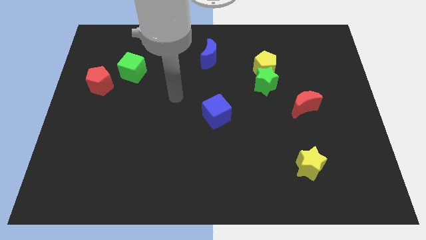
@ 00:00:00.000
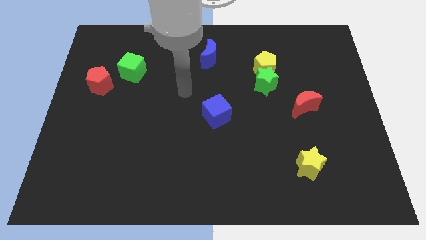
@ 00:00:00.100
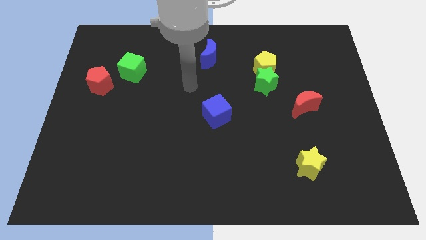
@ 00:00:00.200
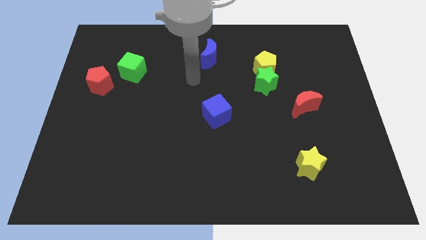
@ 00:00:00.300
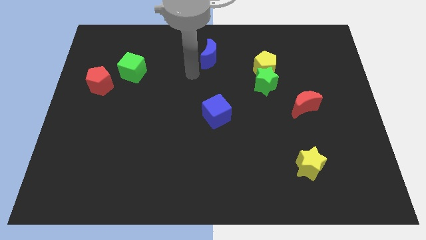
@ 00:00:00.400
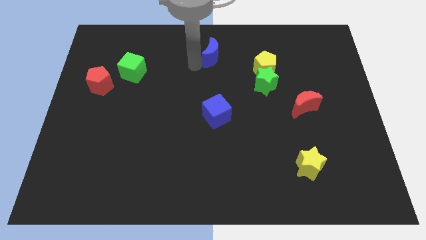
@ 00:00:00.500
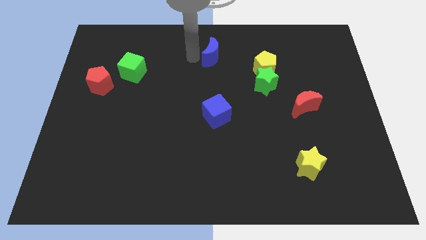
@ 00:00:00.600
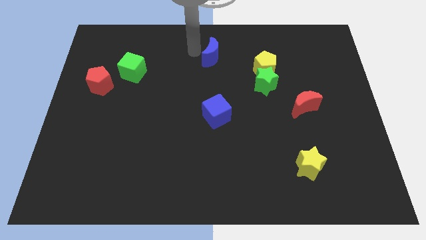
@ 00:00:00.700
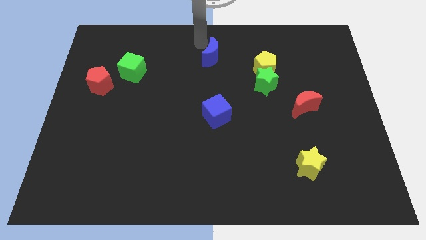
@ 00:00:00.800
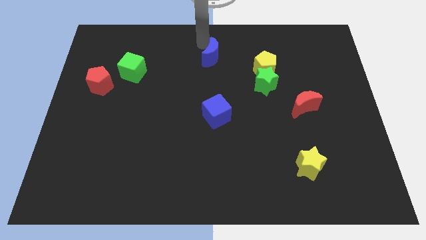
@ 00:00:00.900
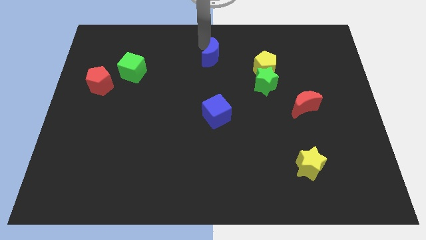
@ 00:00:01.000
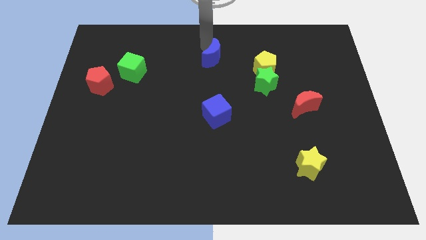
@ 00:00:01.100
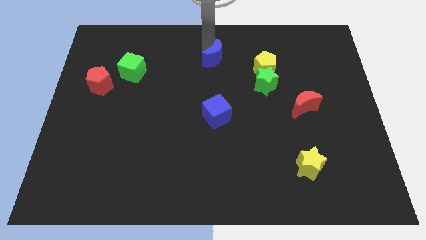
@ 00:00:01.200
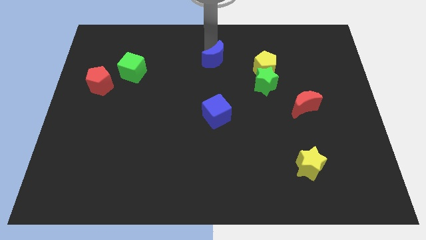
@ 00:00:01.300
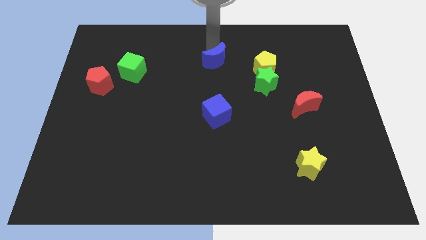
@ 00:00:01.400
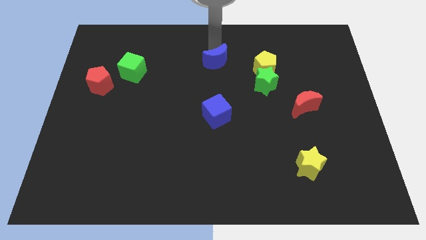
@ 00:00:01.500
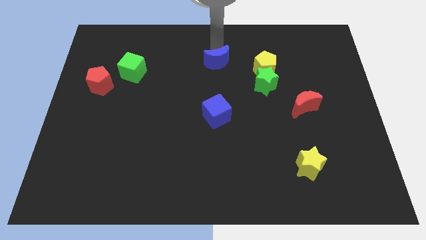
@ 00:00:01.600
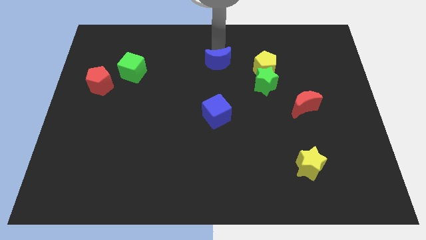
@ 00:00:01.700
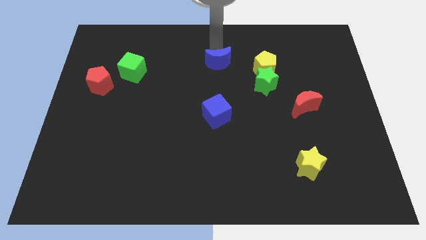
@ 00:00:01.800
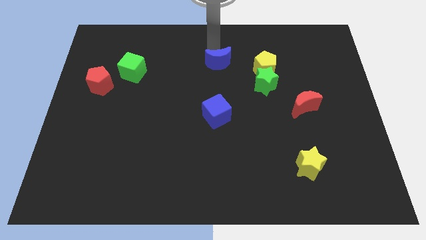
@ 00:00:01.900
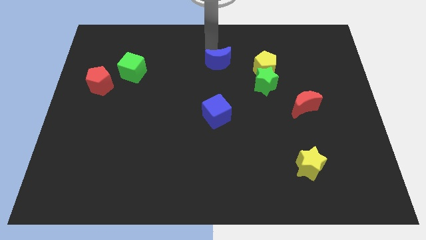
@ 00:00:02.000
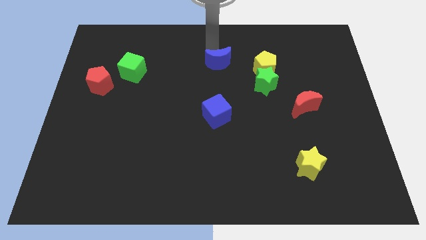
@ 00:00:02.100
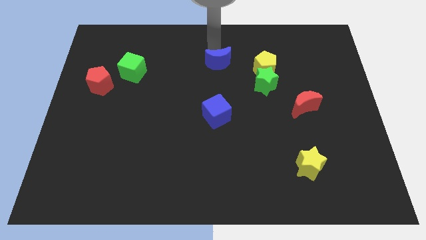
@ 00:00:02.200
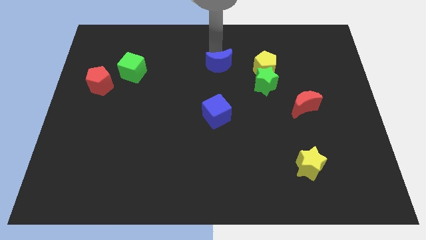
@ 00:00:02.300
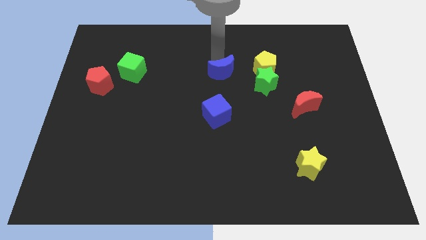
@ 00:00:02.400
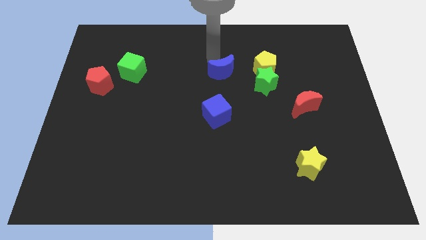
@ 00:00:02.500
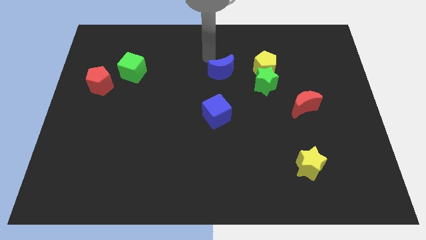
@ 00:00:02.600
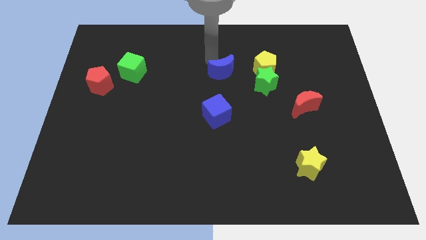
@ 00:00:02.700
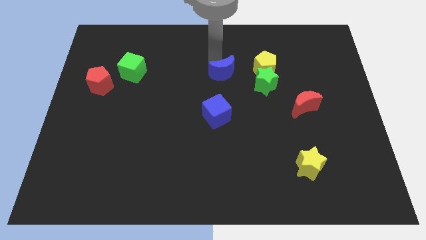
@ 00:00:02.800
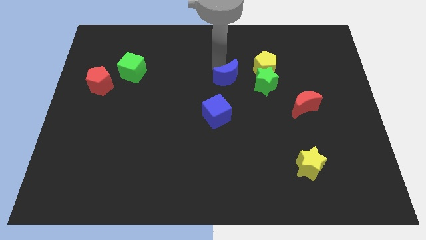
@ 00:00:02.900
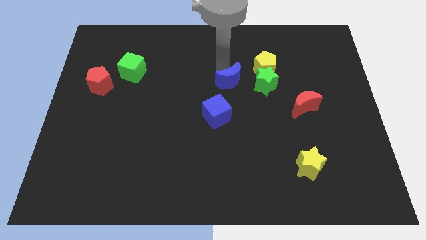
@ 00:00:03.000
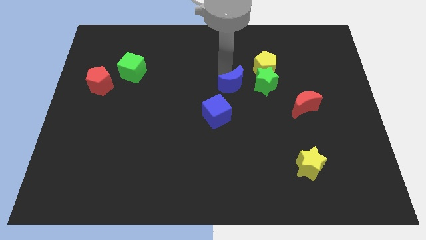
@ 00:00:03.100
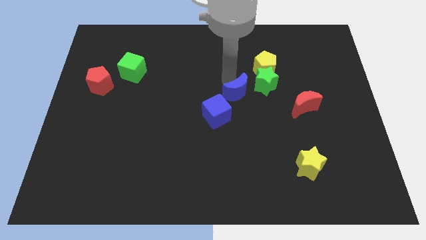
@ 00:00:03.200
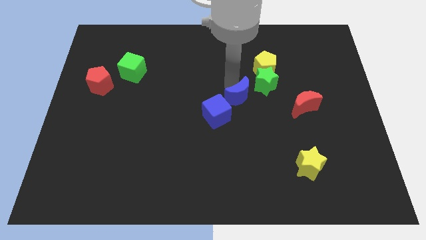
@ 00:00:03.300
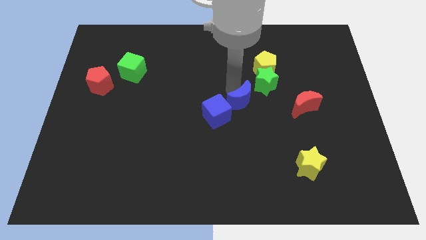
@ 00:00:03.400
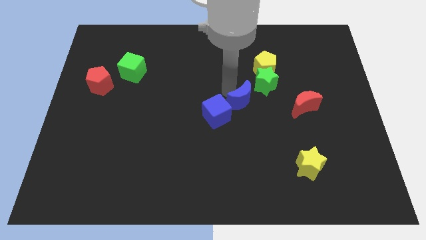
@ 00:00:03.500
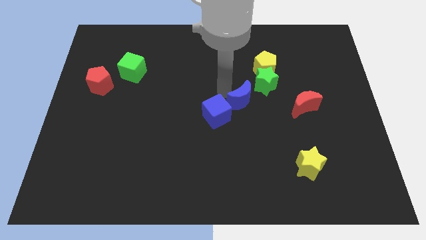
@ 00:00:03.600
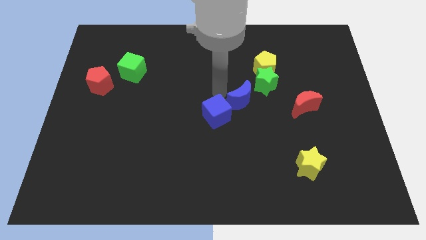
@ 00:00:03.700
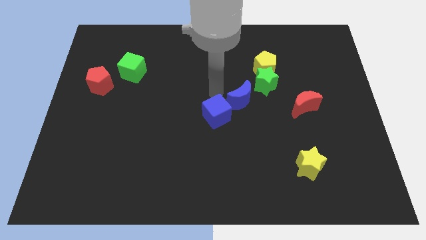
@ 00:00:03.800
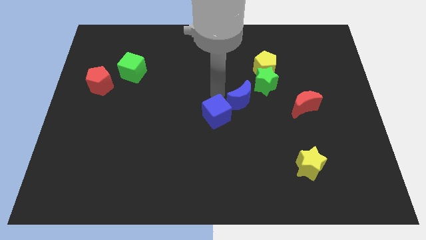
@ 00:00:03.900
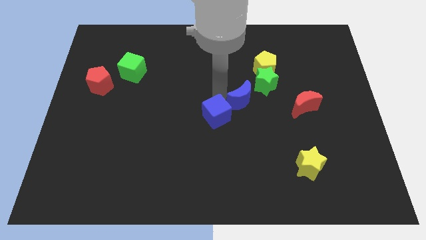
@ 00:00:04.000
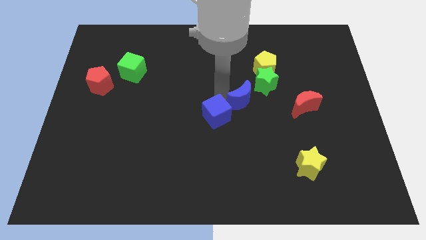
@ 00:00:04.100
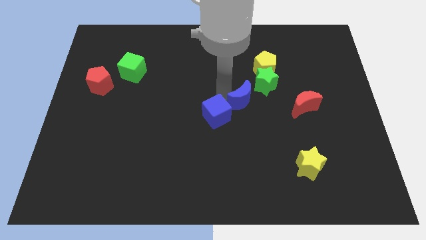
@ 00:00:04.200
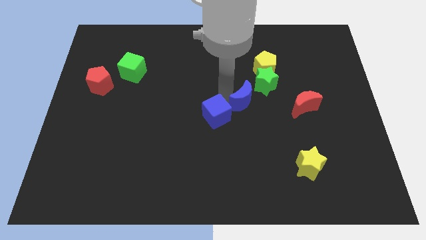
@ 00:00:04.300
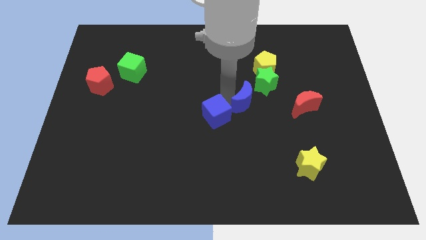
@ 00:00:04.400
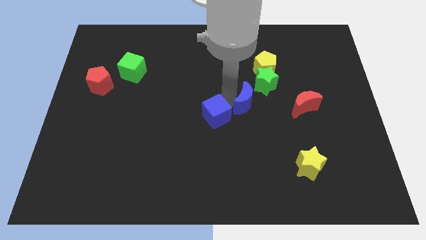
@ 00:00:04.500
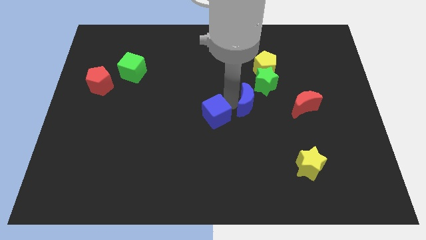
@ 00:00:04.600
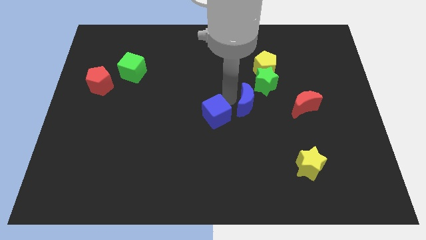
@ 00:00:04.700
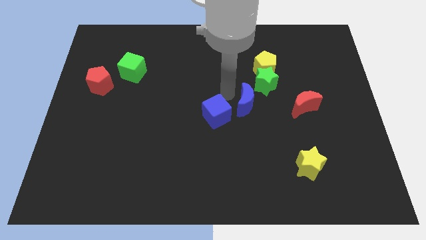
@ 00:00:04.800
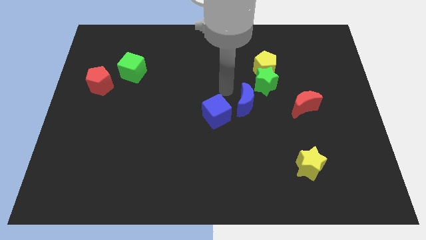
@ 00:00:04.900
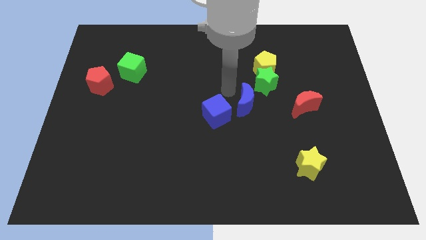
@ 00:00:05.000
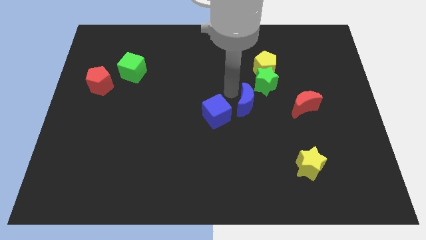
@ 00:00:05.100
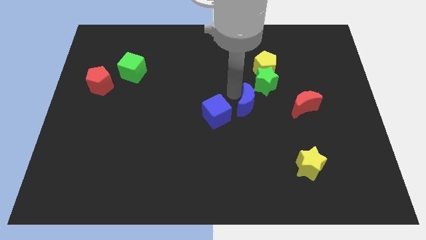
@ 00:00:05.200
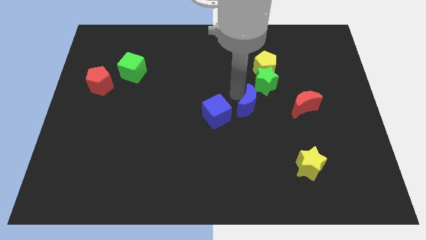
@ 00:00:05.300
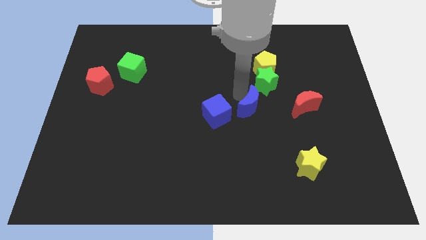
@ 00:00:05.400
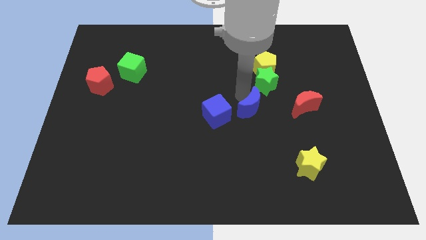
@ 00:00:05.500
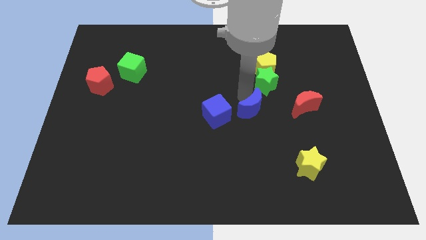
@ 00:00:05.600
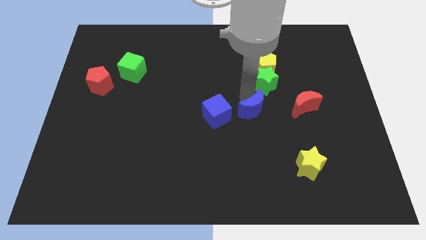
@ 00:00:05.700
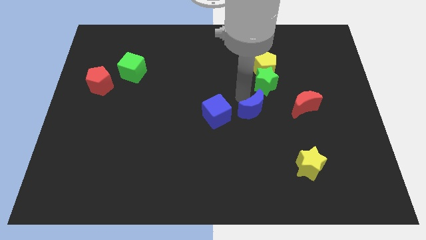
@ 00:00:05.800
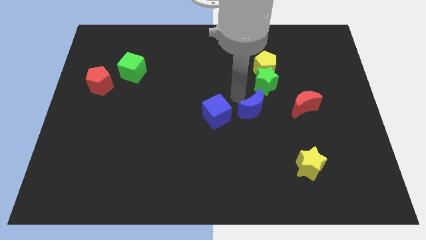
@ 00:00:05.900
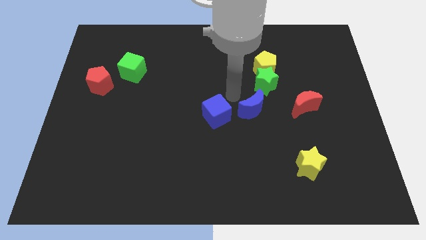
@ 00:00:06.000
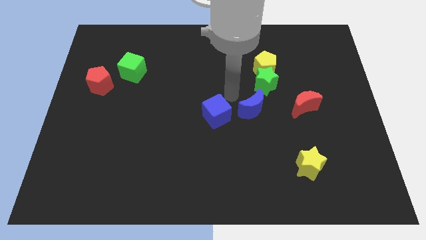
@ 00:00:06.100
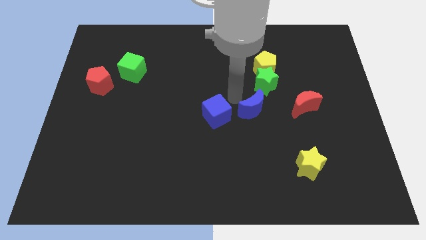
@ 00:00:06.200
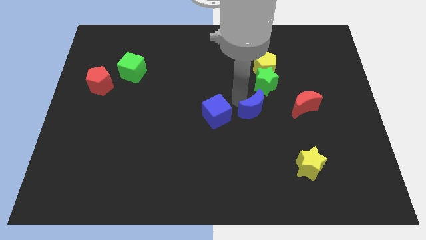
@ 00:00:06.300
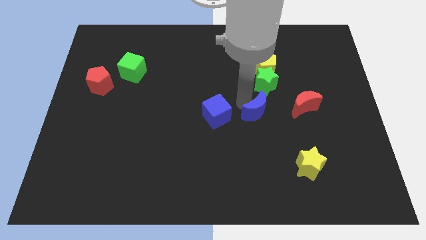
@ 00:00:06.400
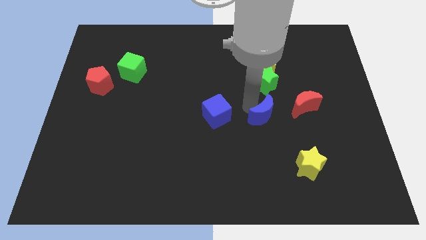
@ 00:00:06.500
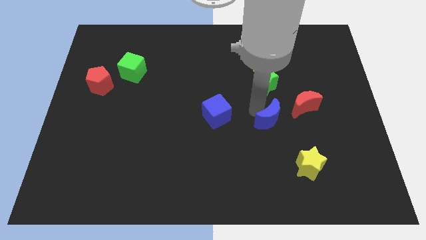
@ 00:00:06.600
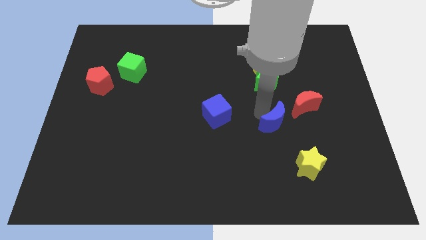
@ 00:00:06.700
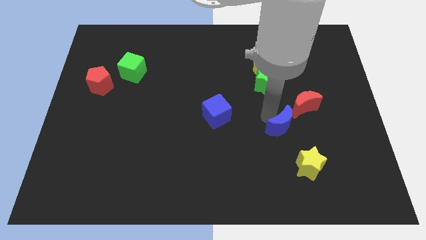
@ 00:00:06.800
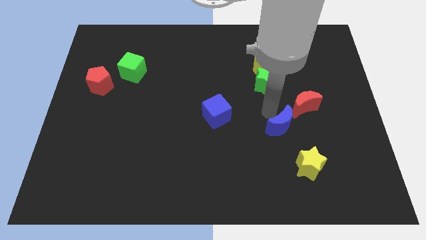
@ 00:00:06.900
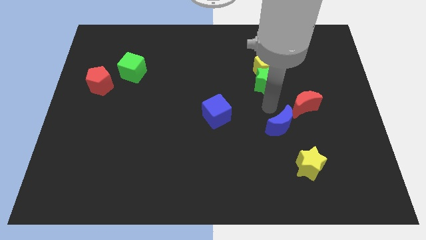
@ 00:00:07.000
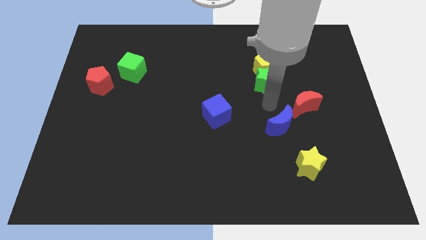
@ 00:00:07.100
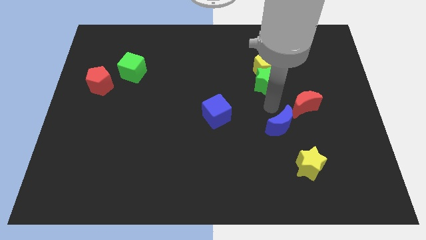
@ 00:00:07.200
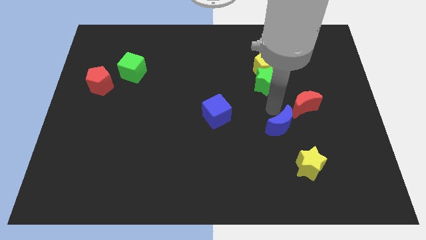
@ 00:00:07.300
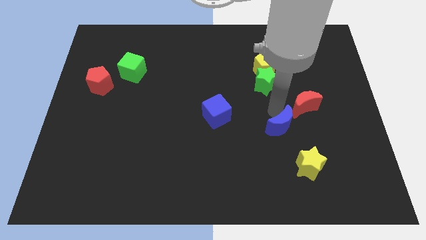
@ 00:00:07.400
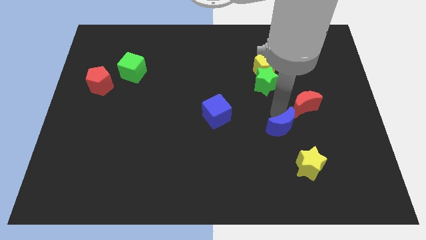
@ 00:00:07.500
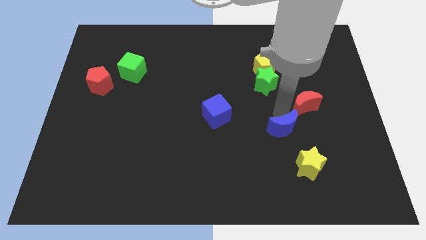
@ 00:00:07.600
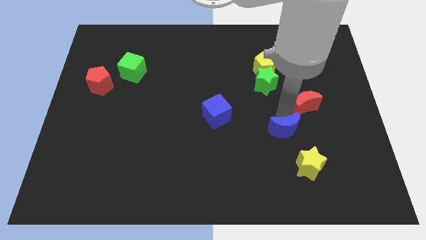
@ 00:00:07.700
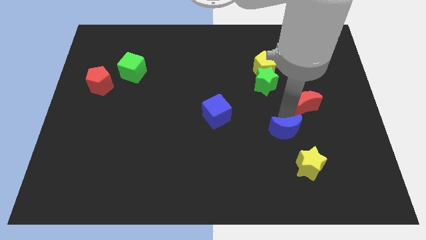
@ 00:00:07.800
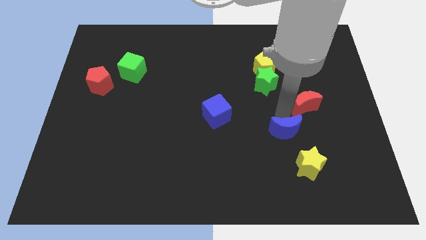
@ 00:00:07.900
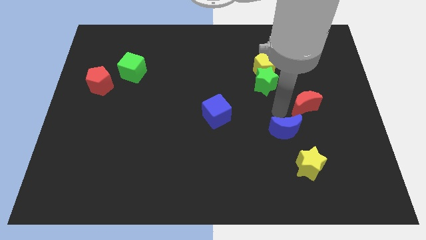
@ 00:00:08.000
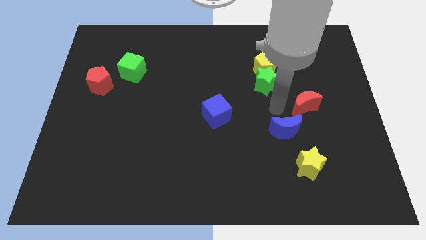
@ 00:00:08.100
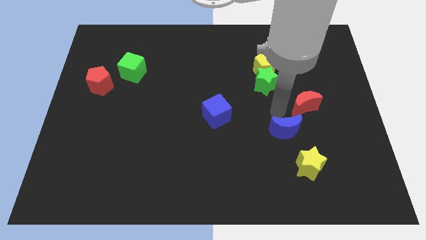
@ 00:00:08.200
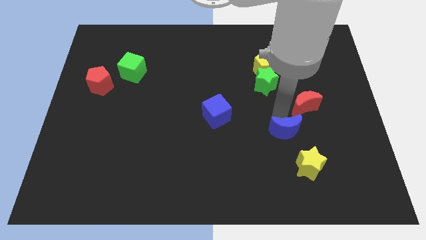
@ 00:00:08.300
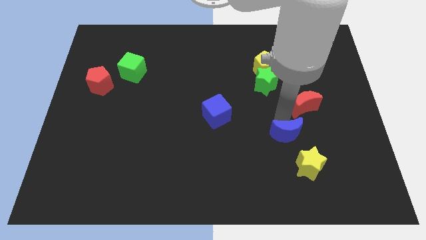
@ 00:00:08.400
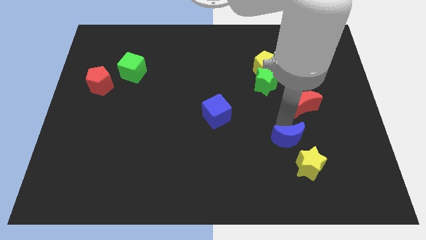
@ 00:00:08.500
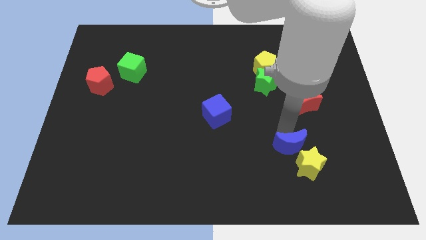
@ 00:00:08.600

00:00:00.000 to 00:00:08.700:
push the blue moon next to the yellow star
